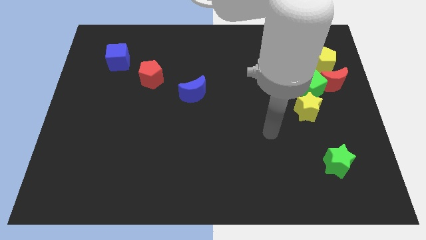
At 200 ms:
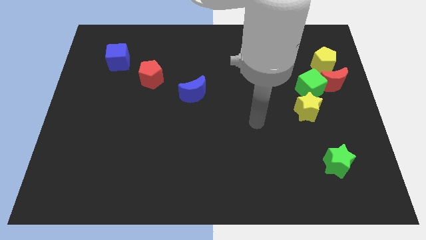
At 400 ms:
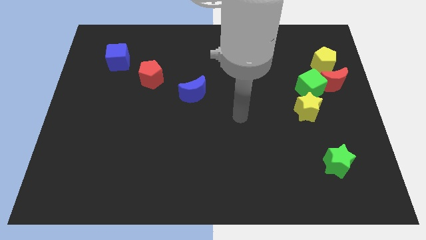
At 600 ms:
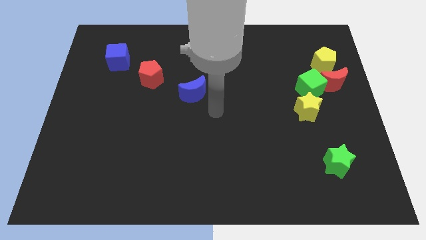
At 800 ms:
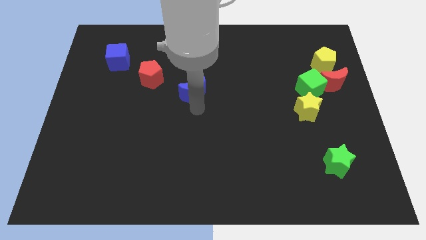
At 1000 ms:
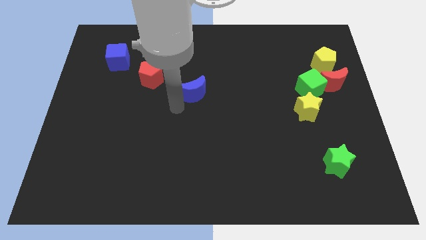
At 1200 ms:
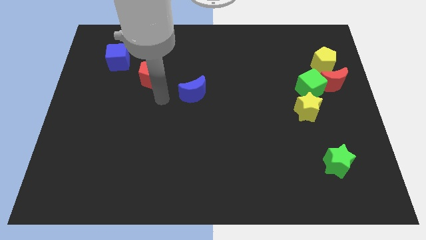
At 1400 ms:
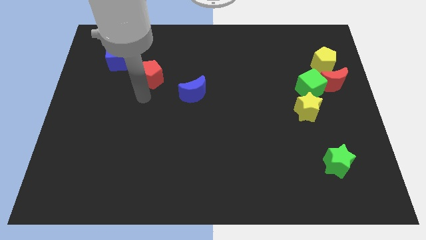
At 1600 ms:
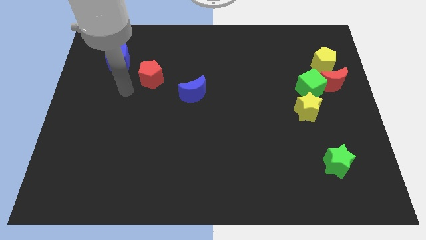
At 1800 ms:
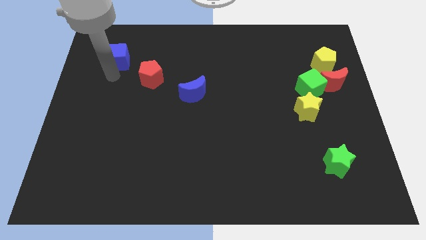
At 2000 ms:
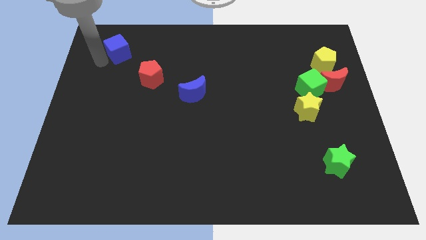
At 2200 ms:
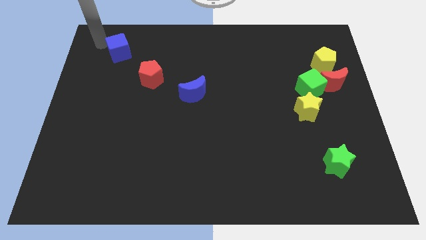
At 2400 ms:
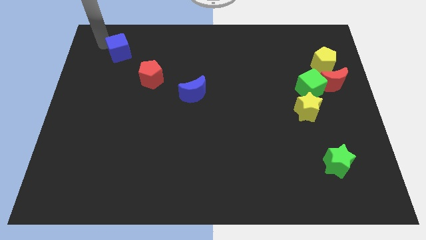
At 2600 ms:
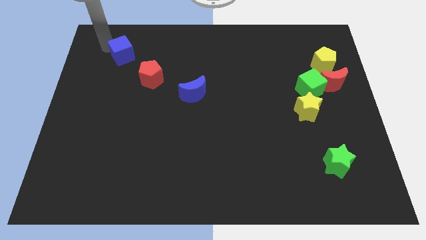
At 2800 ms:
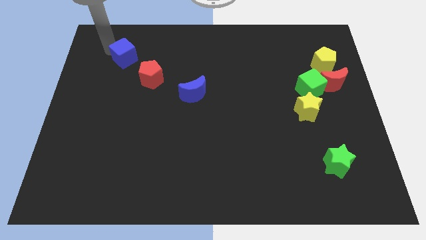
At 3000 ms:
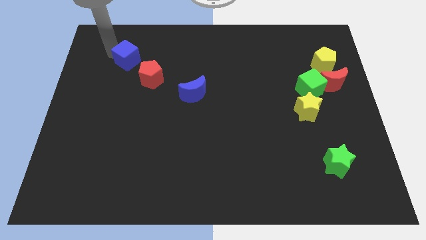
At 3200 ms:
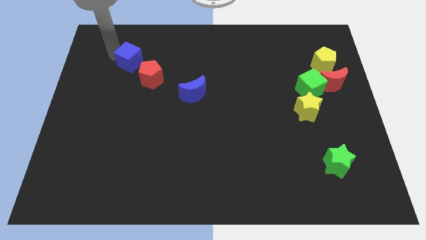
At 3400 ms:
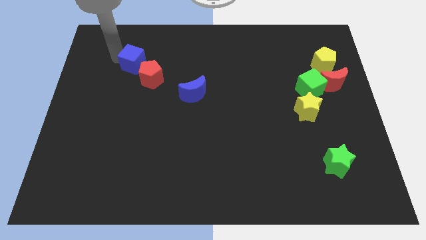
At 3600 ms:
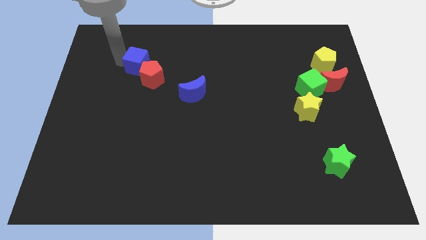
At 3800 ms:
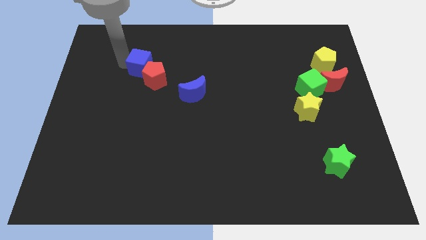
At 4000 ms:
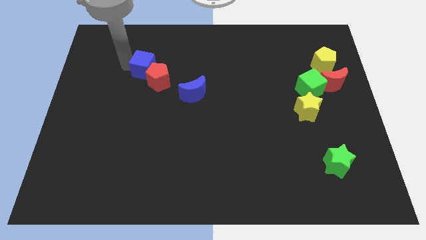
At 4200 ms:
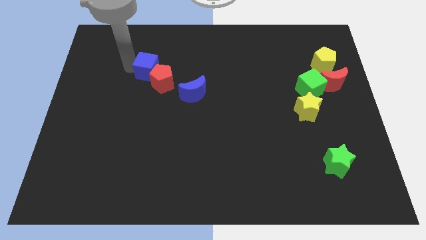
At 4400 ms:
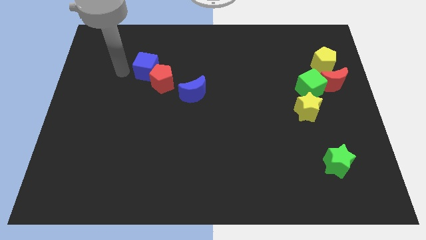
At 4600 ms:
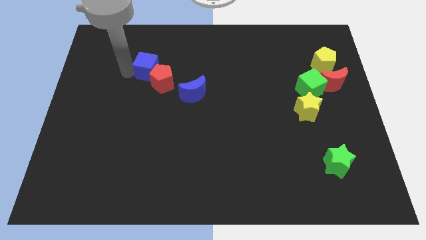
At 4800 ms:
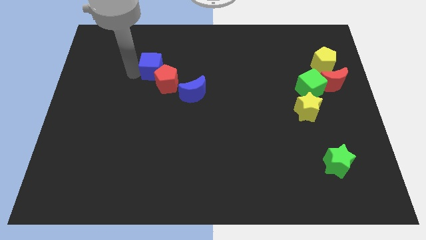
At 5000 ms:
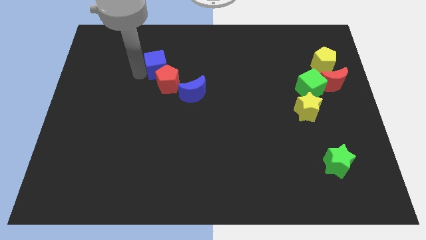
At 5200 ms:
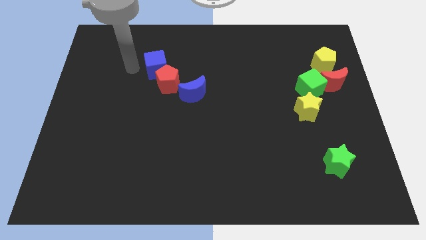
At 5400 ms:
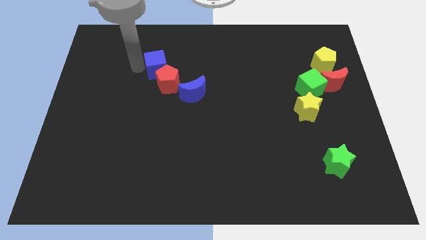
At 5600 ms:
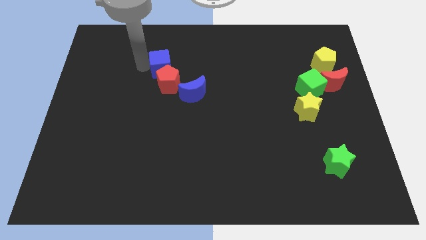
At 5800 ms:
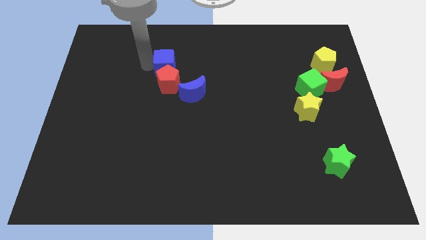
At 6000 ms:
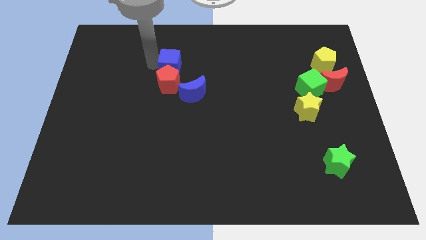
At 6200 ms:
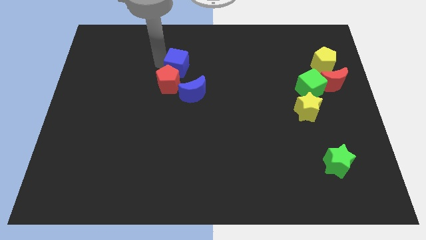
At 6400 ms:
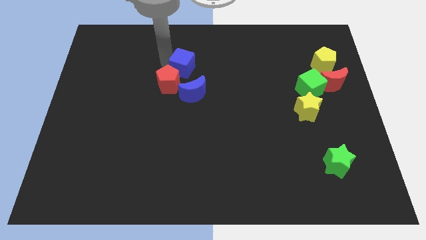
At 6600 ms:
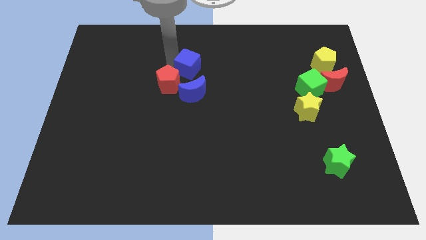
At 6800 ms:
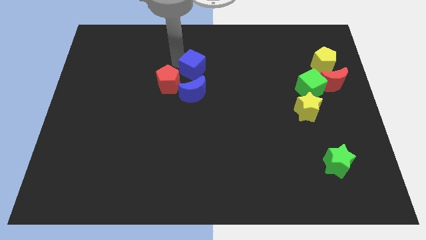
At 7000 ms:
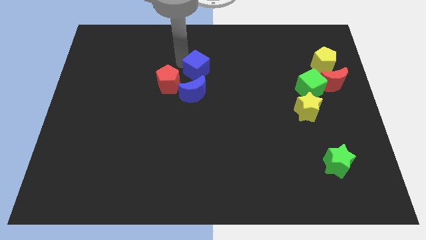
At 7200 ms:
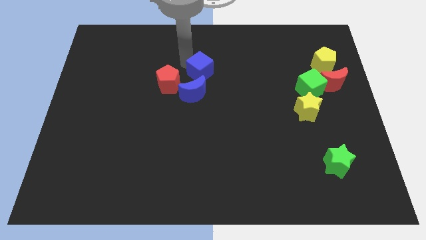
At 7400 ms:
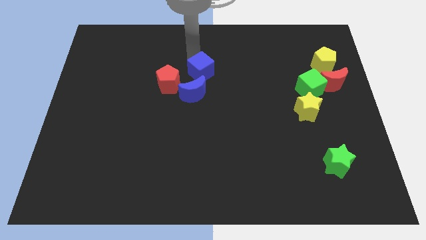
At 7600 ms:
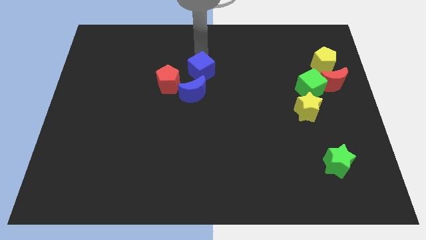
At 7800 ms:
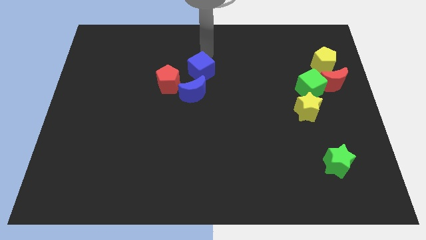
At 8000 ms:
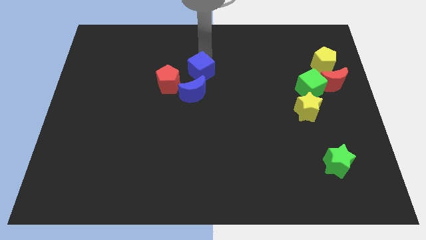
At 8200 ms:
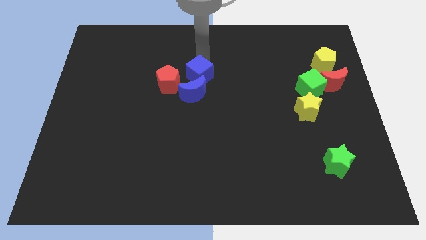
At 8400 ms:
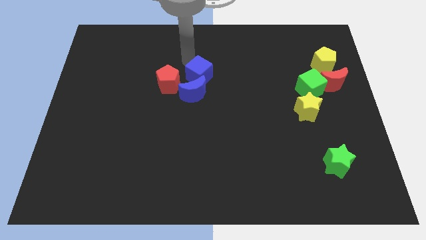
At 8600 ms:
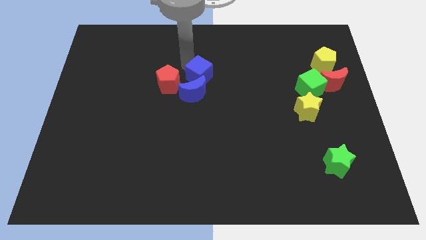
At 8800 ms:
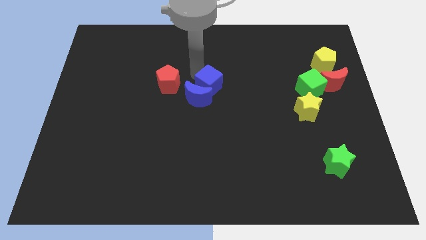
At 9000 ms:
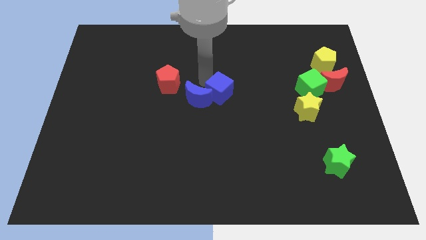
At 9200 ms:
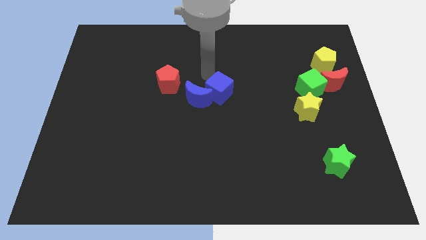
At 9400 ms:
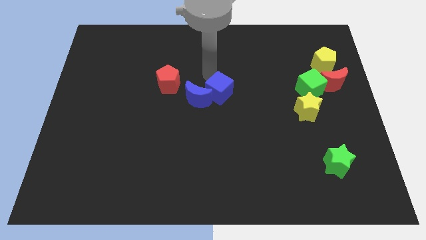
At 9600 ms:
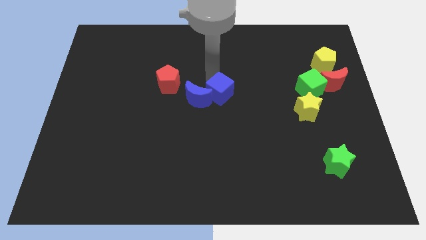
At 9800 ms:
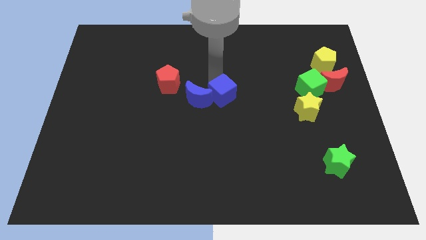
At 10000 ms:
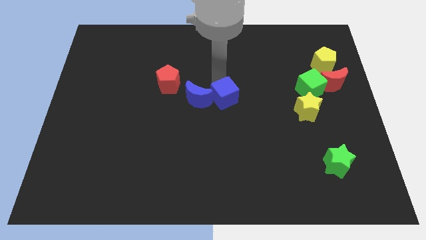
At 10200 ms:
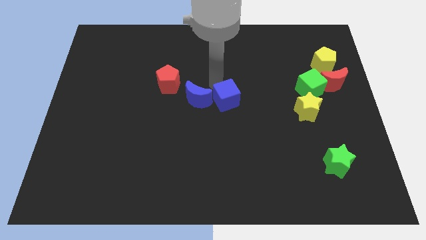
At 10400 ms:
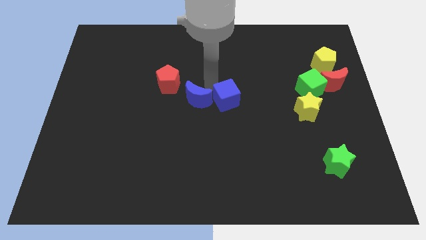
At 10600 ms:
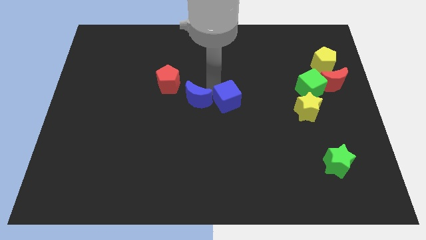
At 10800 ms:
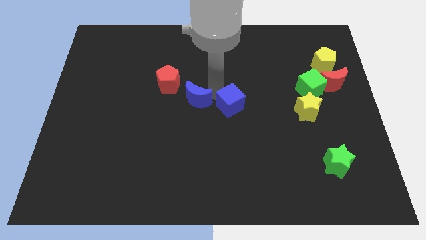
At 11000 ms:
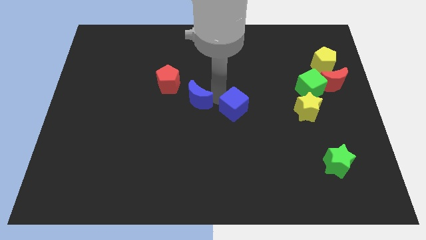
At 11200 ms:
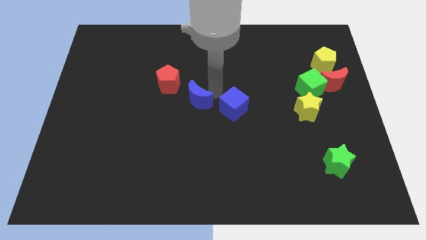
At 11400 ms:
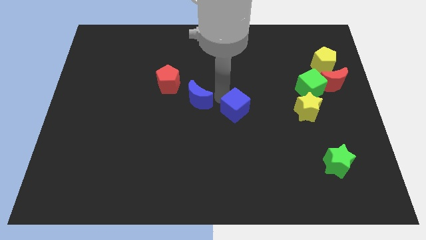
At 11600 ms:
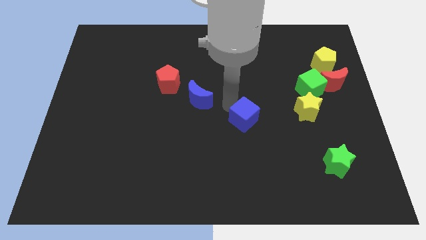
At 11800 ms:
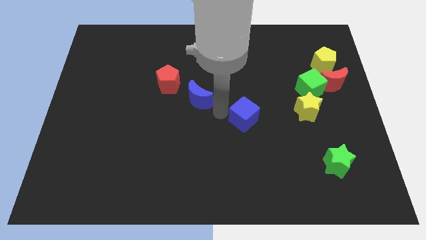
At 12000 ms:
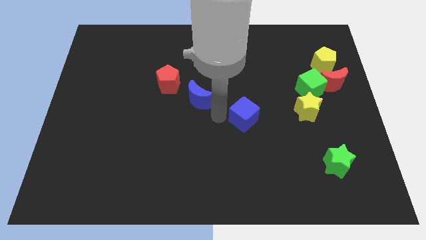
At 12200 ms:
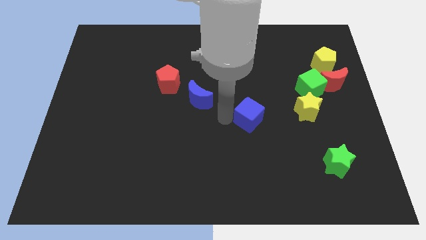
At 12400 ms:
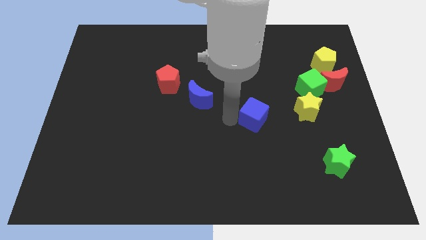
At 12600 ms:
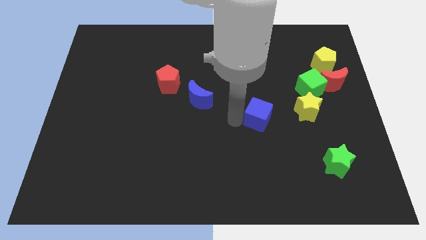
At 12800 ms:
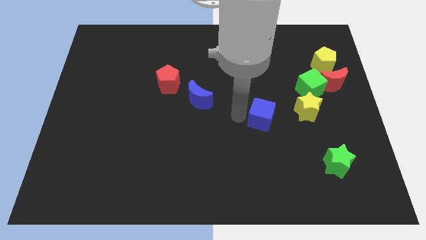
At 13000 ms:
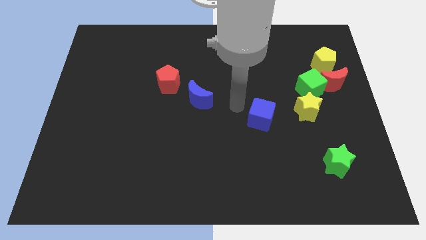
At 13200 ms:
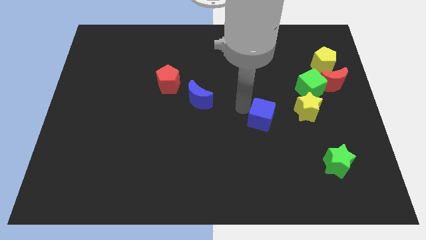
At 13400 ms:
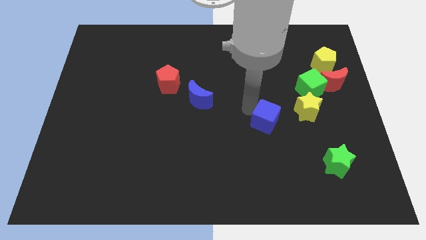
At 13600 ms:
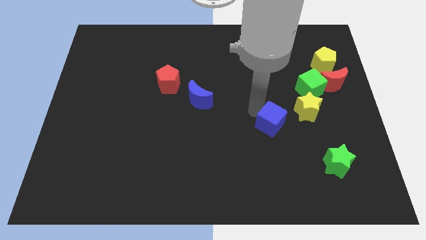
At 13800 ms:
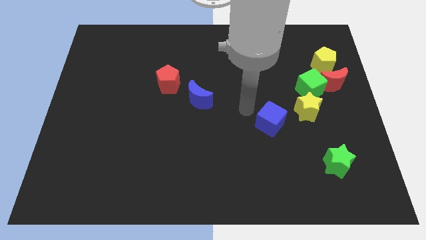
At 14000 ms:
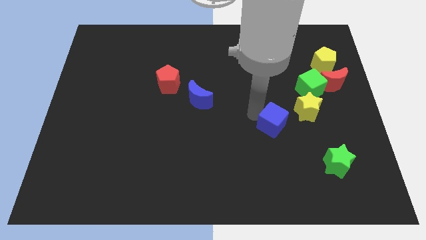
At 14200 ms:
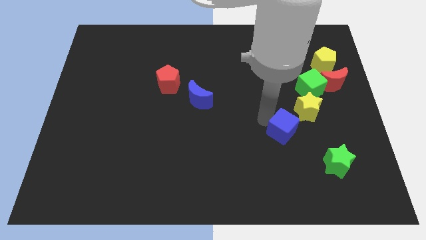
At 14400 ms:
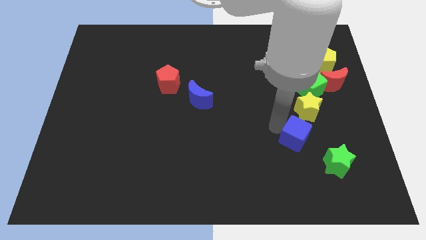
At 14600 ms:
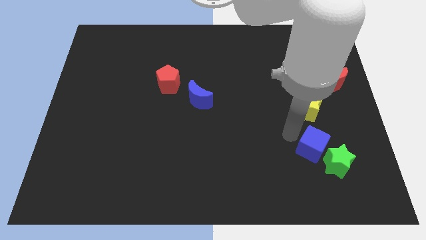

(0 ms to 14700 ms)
slide the blue cube next to the green star
